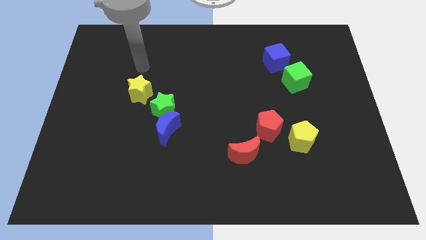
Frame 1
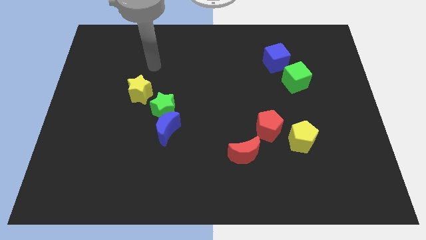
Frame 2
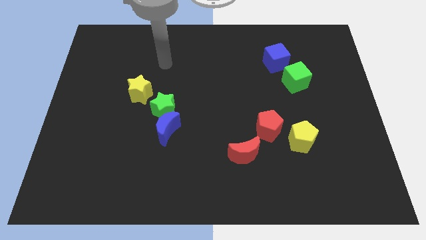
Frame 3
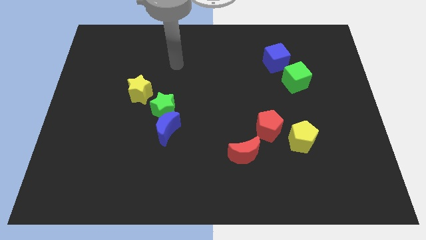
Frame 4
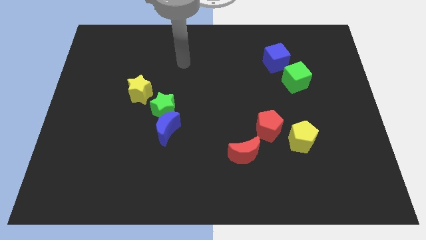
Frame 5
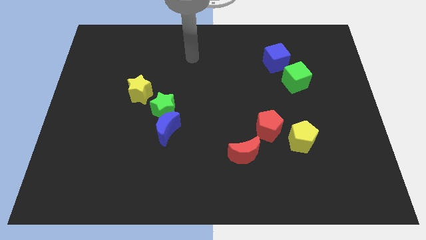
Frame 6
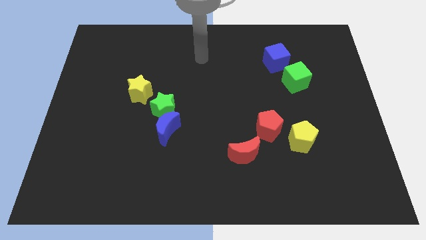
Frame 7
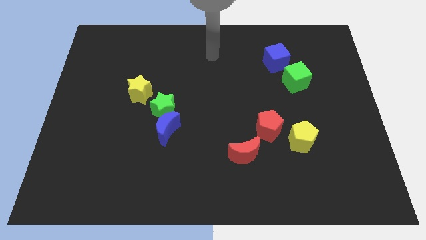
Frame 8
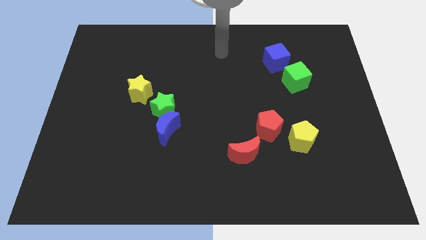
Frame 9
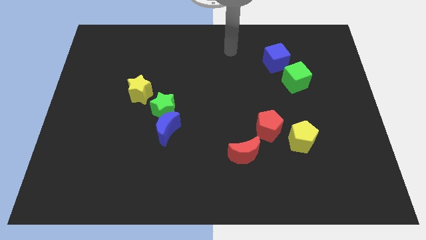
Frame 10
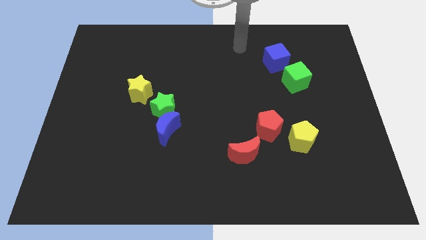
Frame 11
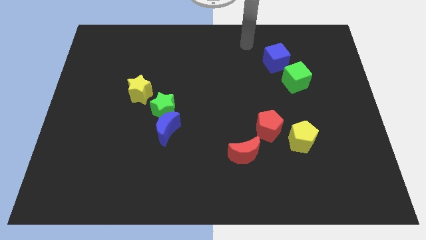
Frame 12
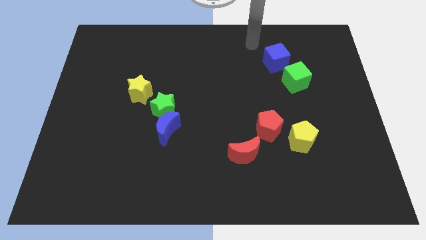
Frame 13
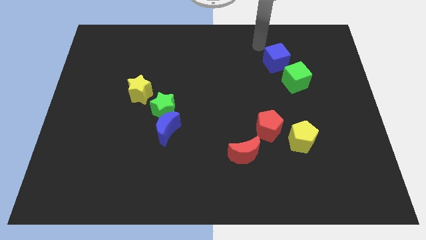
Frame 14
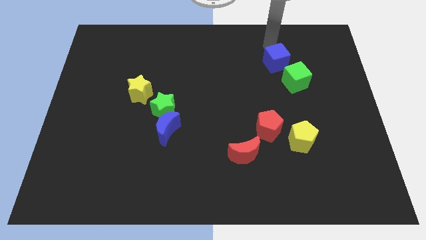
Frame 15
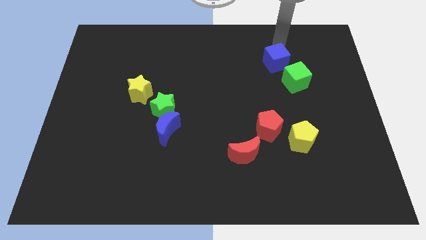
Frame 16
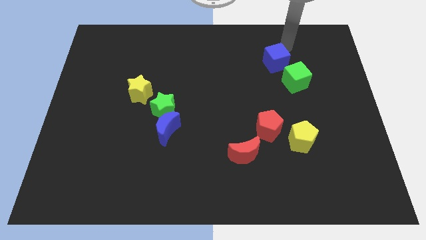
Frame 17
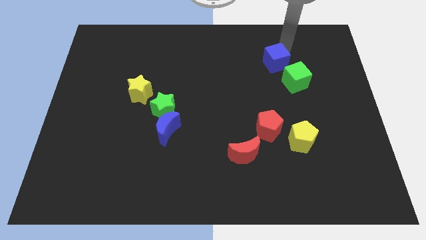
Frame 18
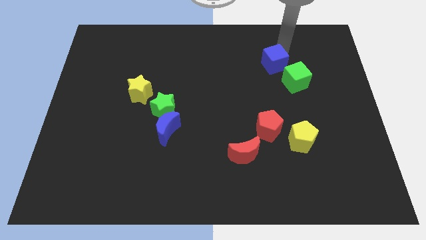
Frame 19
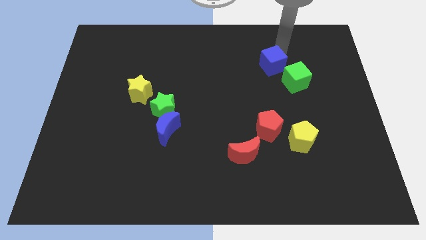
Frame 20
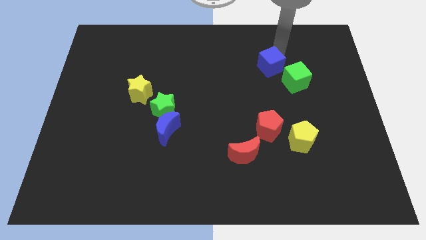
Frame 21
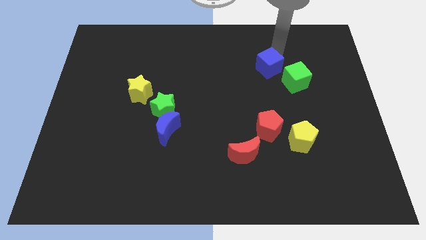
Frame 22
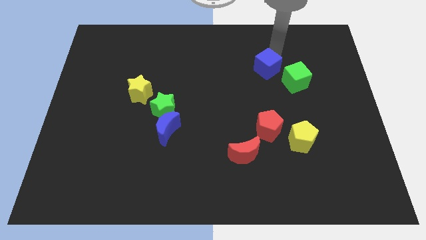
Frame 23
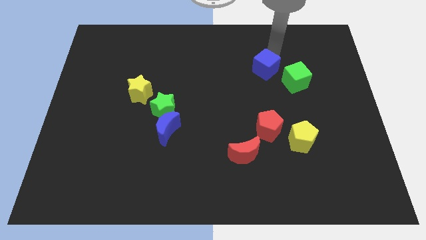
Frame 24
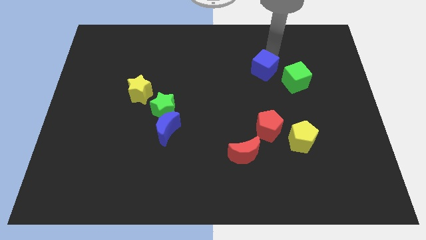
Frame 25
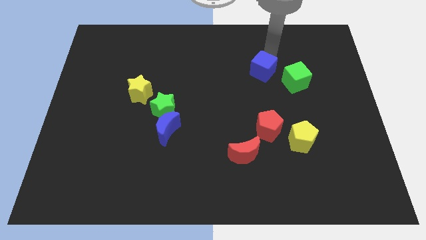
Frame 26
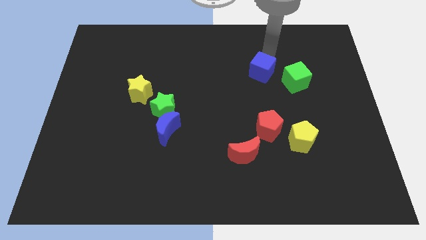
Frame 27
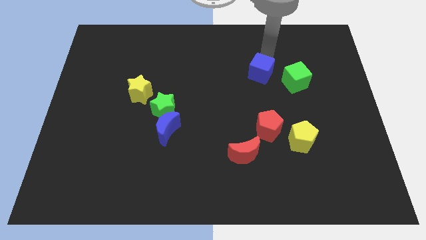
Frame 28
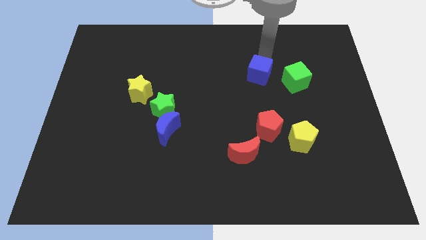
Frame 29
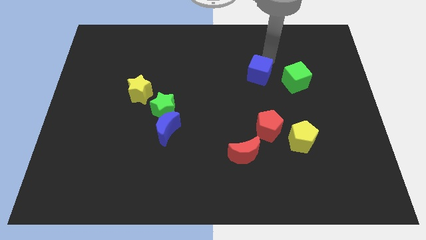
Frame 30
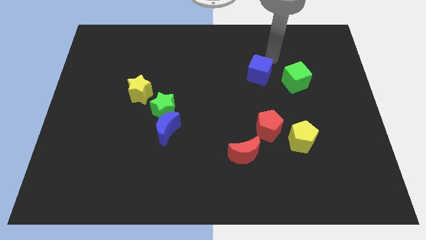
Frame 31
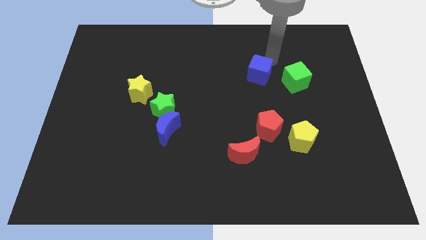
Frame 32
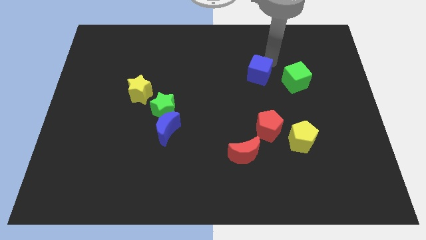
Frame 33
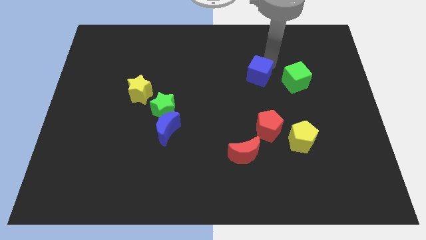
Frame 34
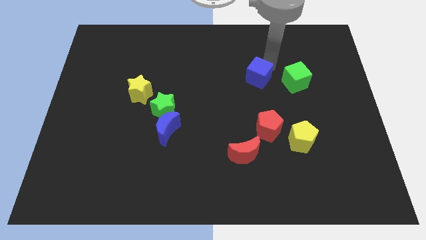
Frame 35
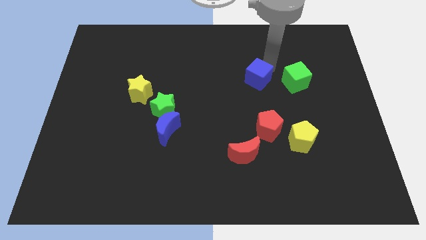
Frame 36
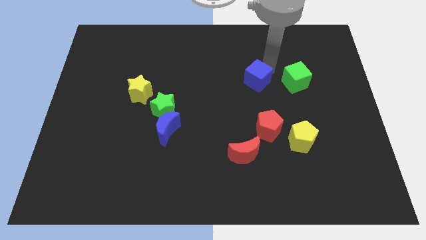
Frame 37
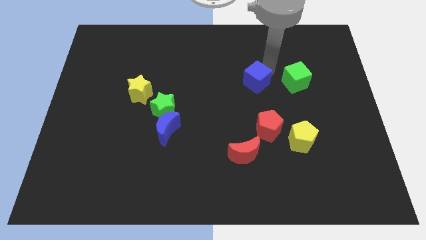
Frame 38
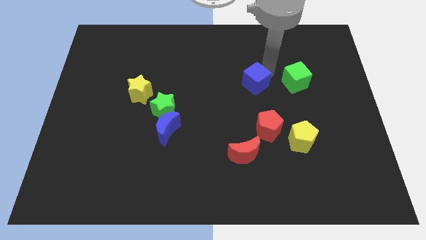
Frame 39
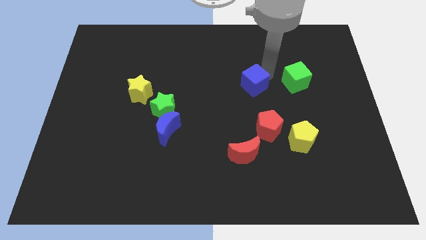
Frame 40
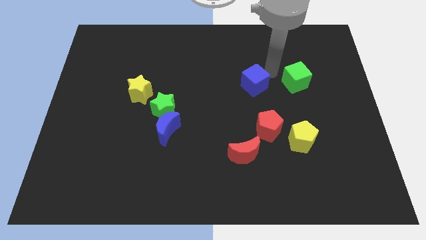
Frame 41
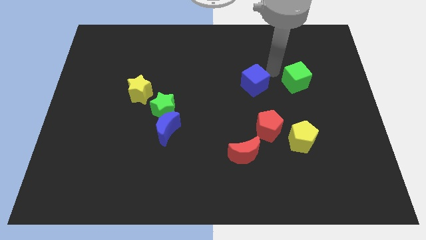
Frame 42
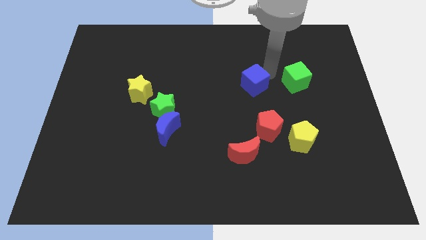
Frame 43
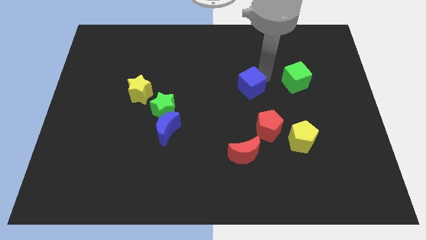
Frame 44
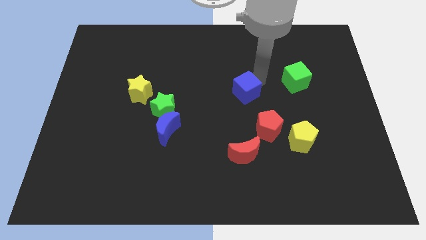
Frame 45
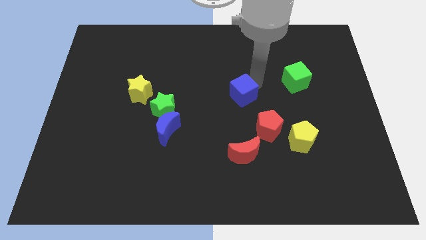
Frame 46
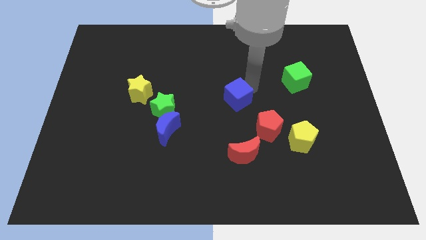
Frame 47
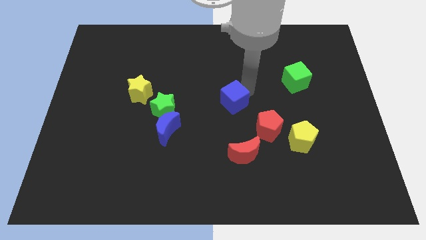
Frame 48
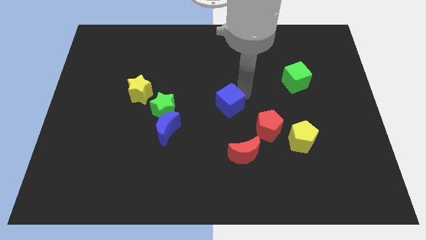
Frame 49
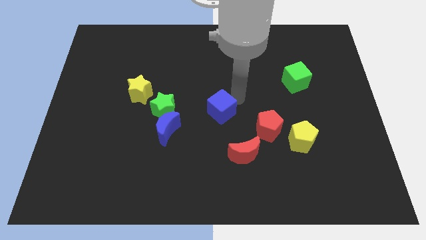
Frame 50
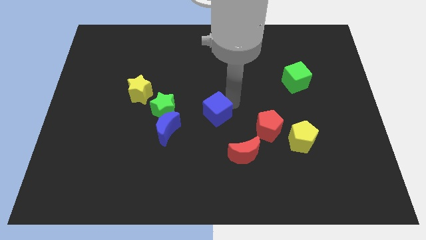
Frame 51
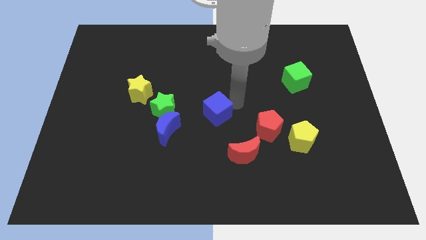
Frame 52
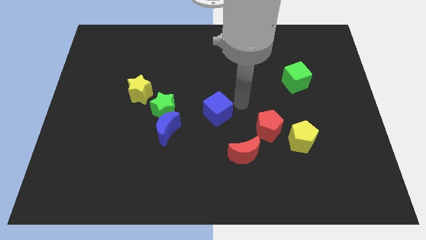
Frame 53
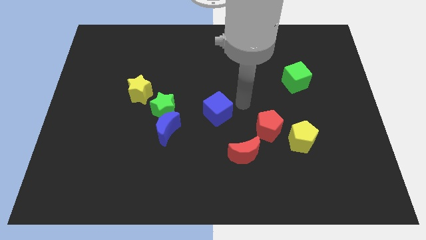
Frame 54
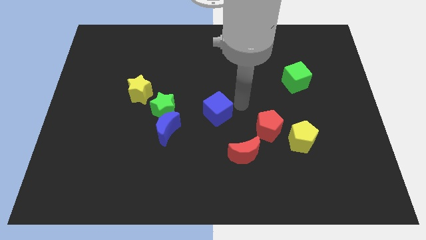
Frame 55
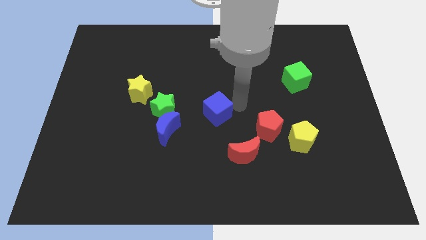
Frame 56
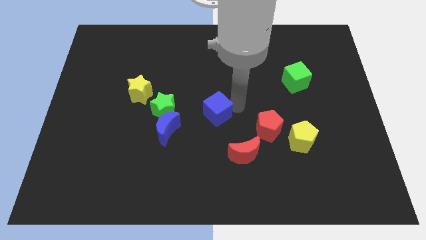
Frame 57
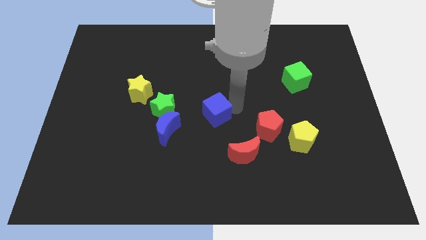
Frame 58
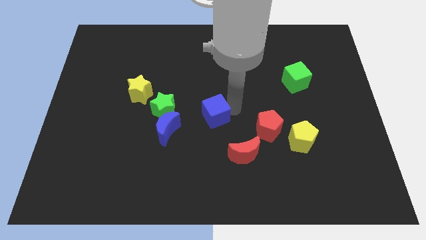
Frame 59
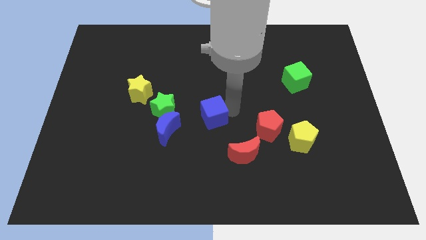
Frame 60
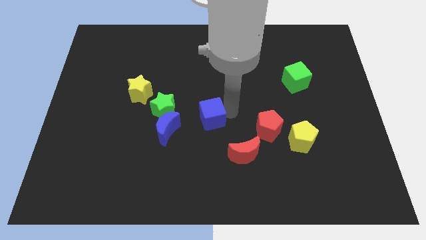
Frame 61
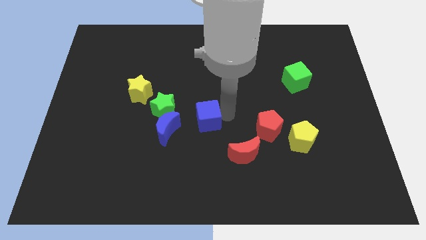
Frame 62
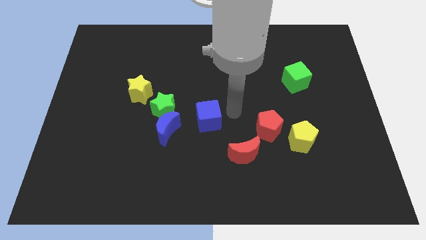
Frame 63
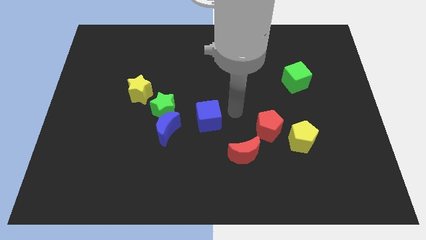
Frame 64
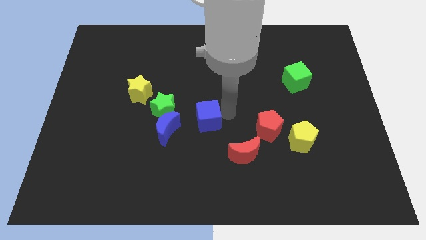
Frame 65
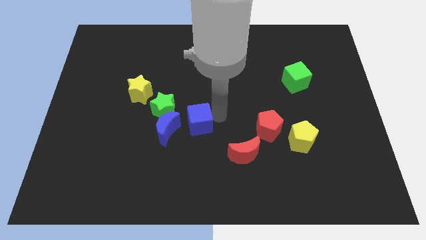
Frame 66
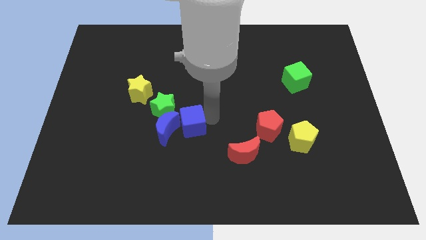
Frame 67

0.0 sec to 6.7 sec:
put the blue cube towards the blue moon

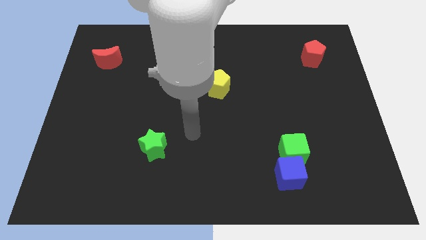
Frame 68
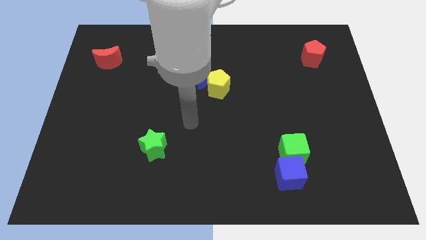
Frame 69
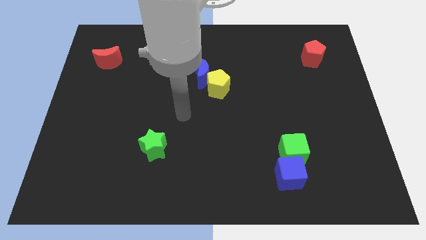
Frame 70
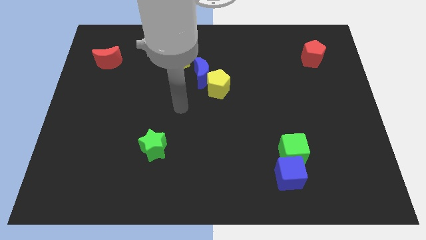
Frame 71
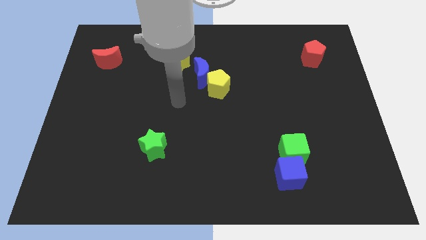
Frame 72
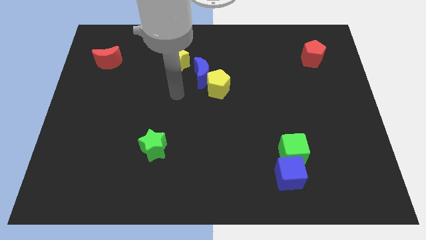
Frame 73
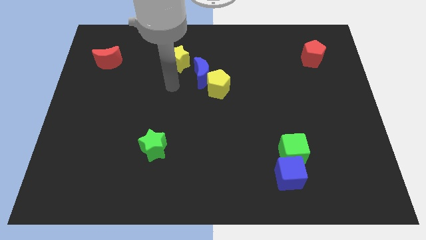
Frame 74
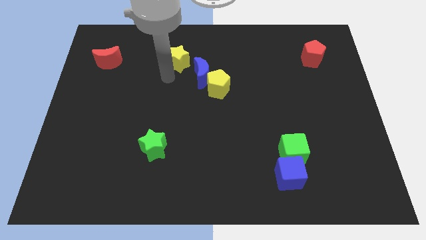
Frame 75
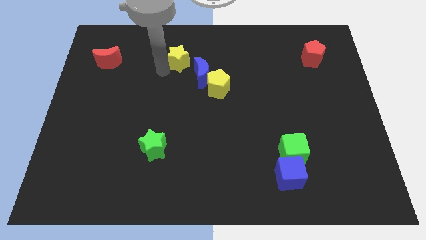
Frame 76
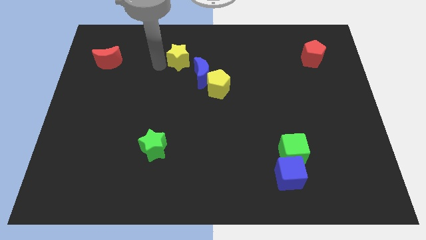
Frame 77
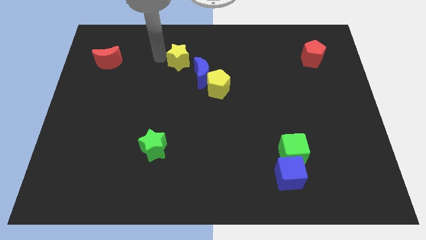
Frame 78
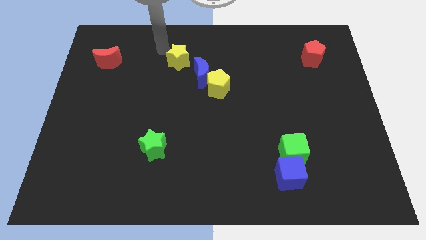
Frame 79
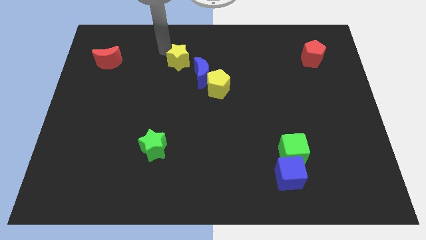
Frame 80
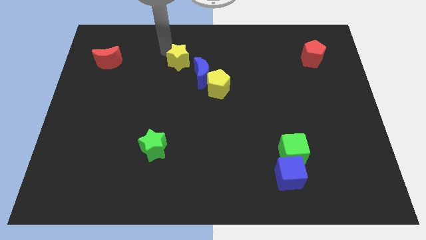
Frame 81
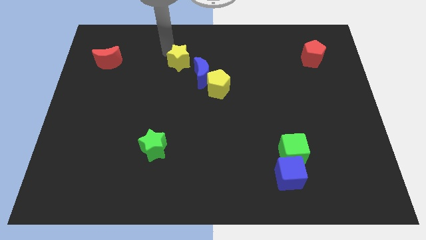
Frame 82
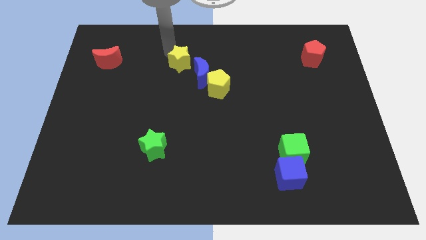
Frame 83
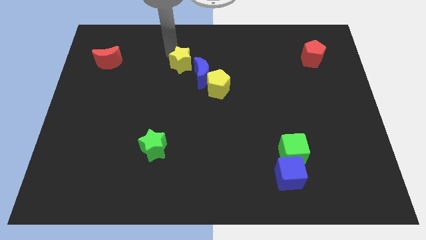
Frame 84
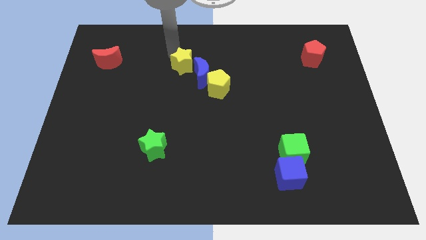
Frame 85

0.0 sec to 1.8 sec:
slide the yellow star close to the blue moon
